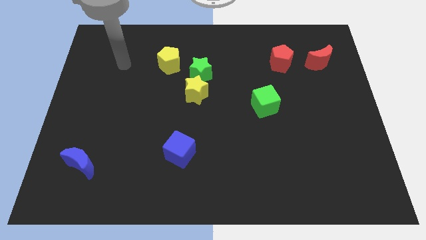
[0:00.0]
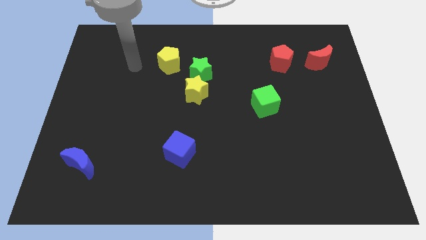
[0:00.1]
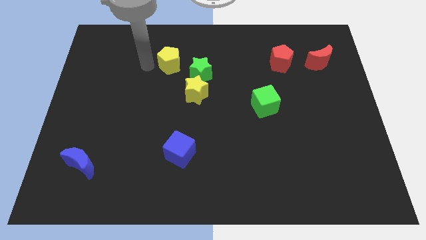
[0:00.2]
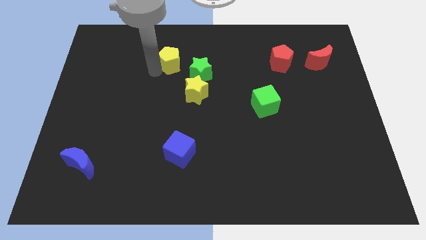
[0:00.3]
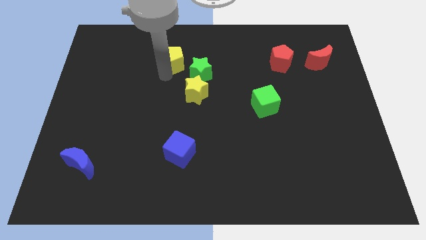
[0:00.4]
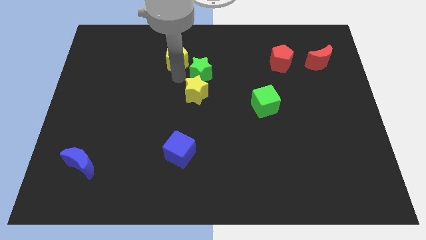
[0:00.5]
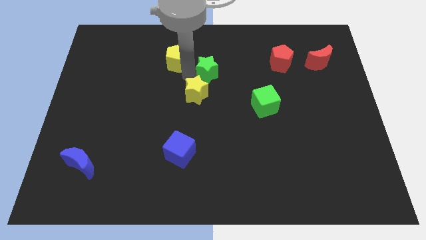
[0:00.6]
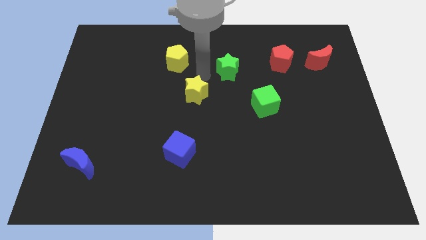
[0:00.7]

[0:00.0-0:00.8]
pull the yellow star apart from the green star

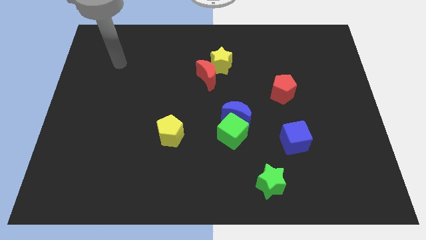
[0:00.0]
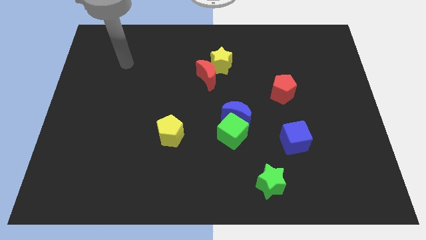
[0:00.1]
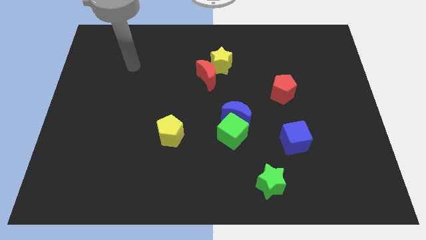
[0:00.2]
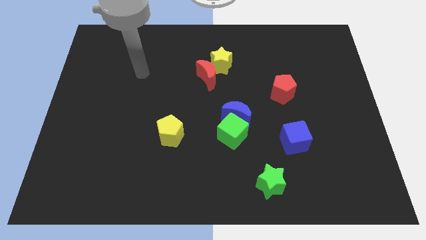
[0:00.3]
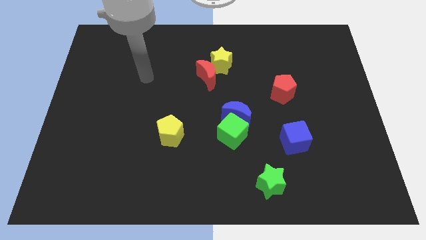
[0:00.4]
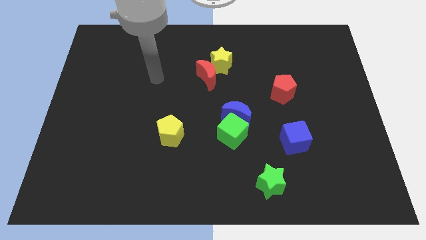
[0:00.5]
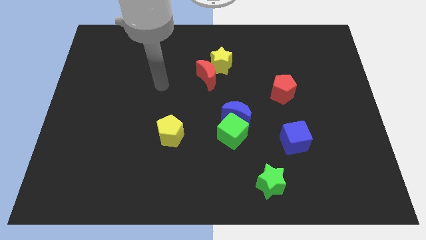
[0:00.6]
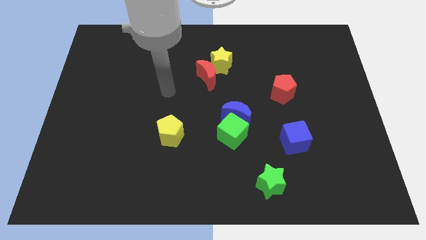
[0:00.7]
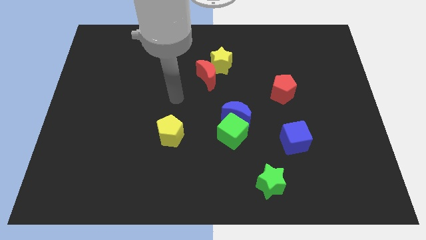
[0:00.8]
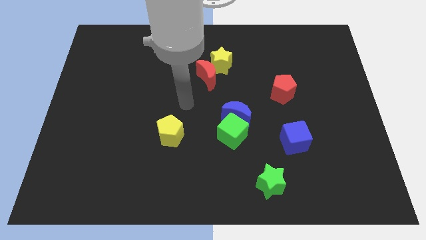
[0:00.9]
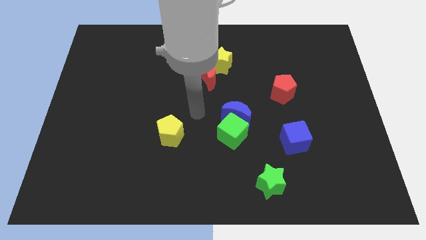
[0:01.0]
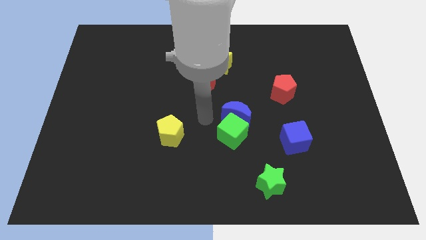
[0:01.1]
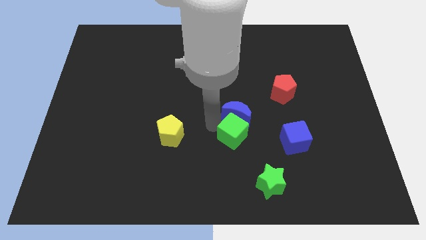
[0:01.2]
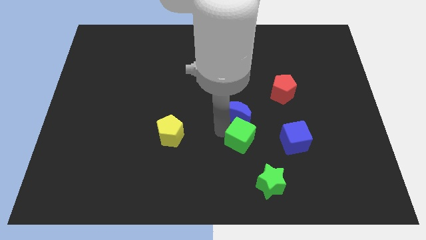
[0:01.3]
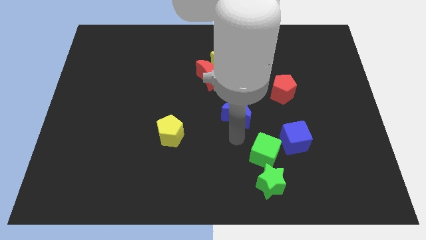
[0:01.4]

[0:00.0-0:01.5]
pull the blue moon apart from the green cube

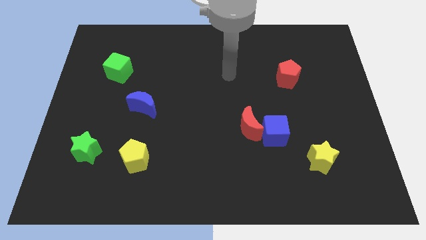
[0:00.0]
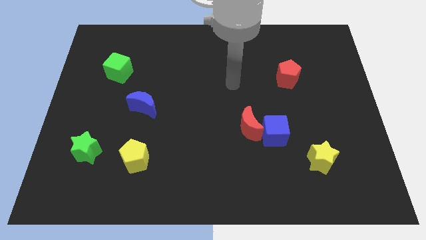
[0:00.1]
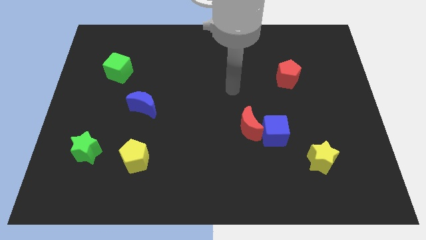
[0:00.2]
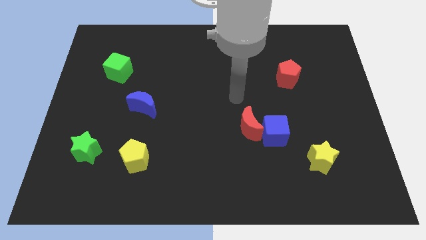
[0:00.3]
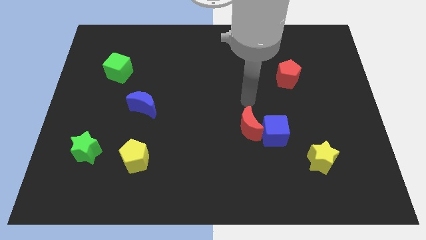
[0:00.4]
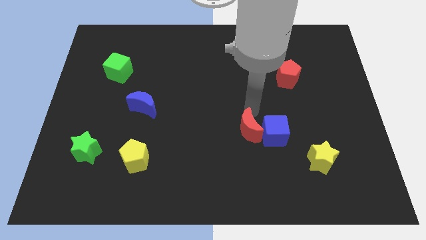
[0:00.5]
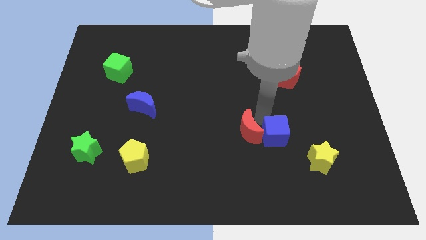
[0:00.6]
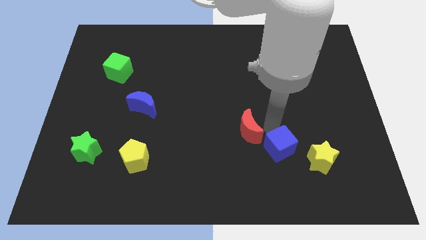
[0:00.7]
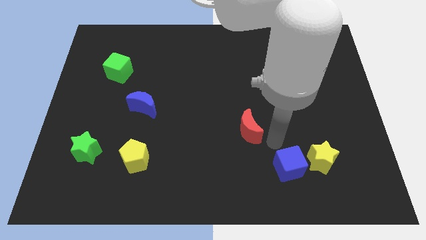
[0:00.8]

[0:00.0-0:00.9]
separate the red moon from the blue cube

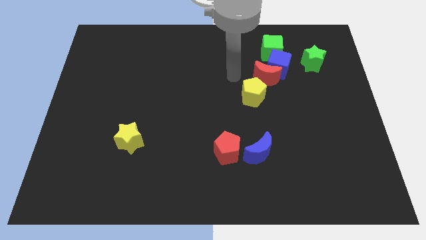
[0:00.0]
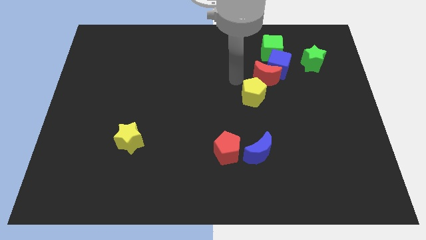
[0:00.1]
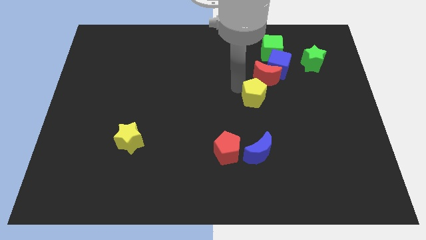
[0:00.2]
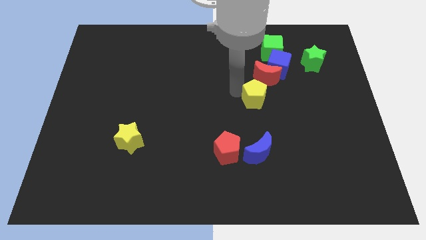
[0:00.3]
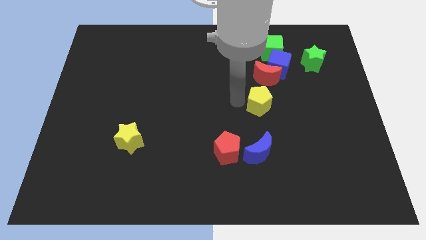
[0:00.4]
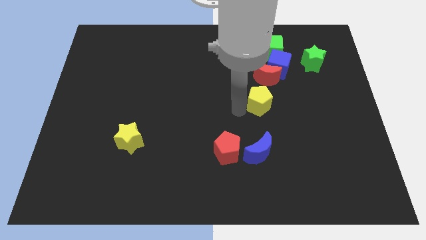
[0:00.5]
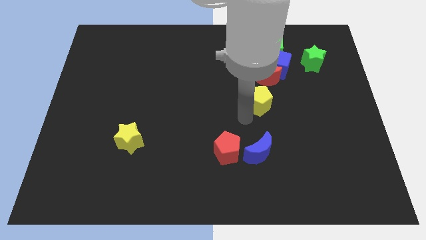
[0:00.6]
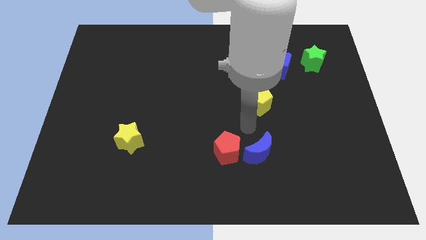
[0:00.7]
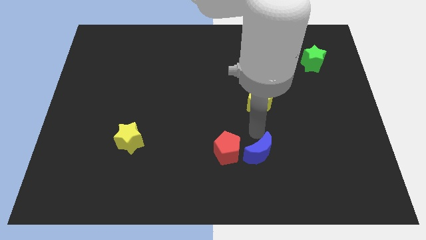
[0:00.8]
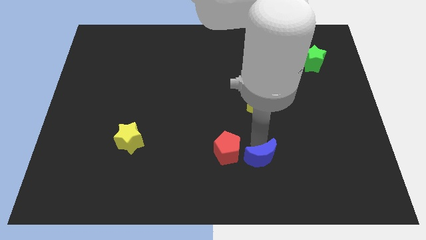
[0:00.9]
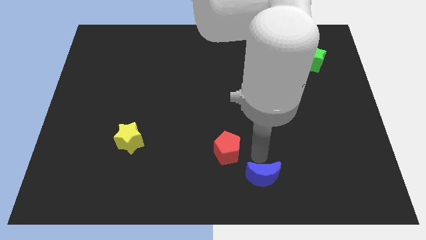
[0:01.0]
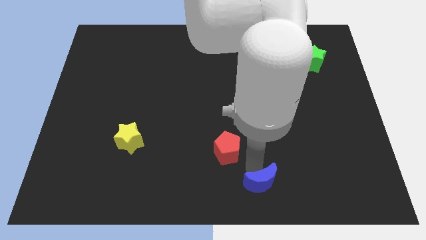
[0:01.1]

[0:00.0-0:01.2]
pull the red pentagon apart from the blue moon

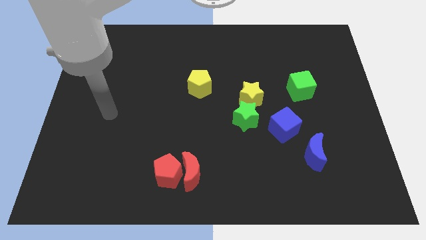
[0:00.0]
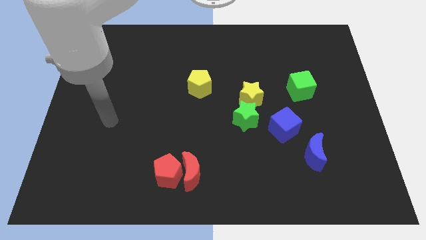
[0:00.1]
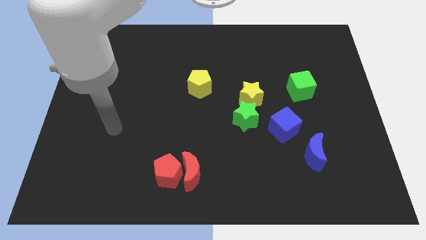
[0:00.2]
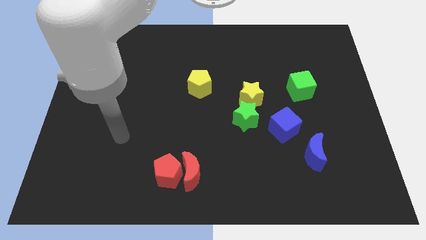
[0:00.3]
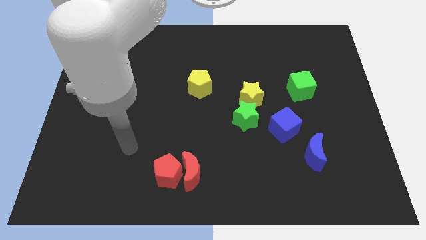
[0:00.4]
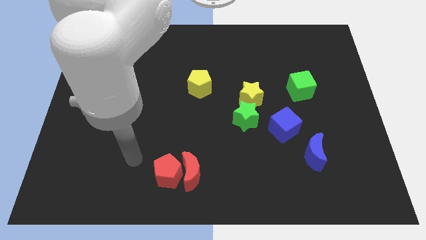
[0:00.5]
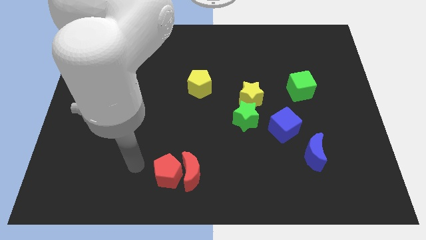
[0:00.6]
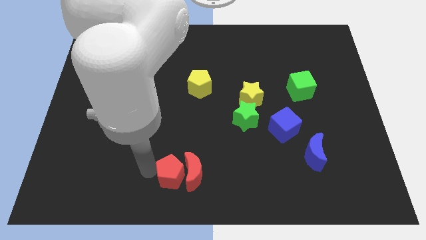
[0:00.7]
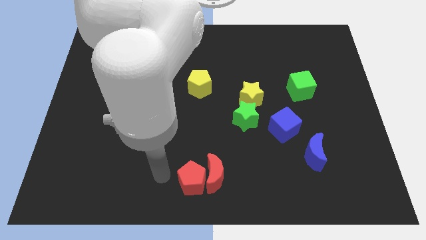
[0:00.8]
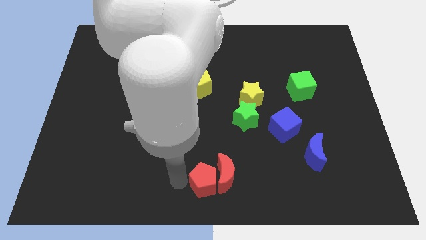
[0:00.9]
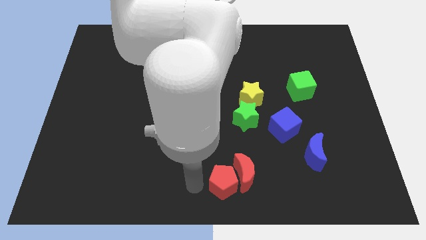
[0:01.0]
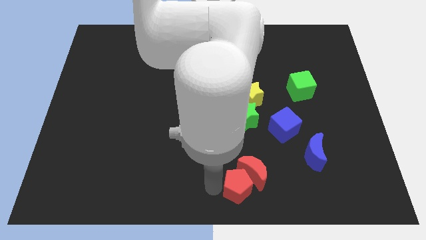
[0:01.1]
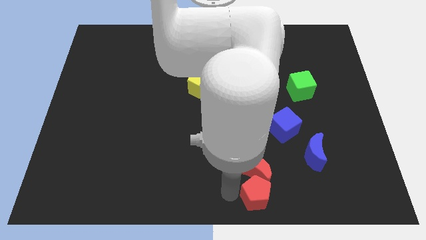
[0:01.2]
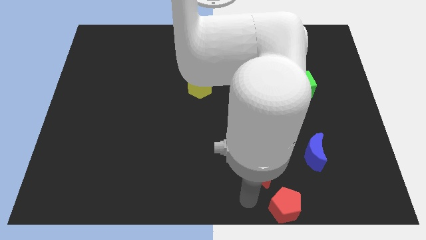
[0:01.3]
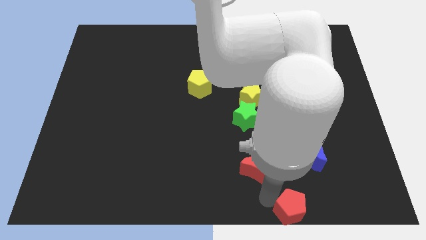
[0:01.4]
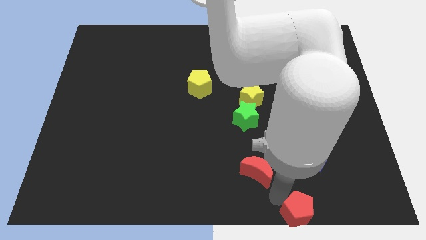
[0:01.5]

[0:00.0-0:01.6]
move the red moon away from the red pentagon

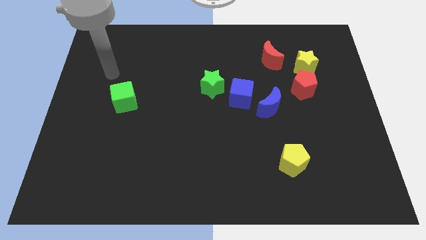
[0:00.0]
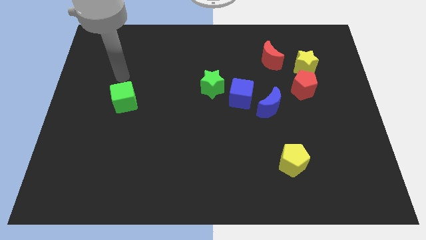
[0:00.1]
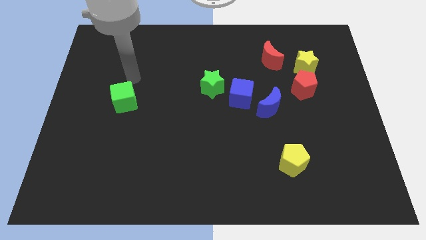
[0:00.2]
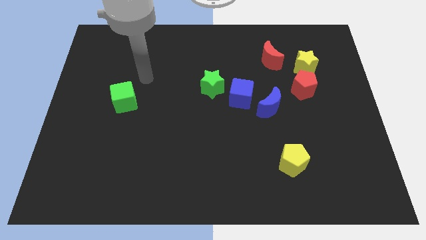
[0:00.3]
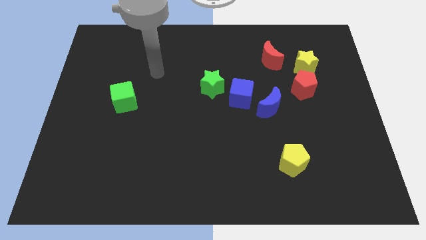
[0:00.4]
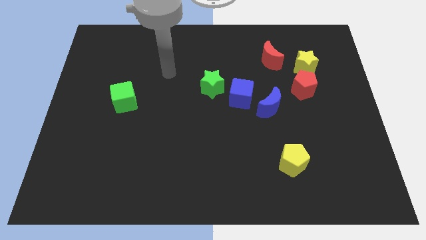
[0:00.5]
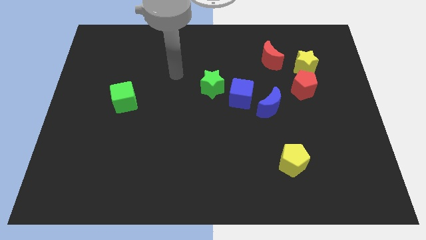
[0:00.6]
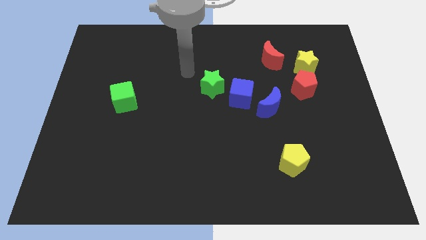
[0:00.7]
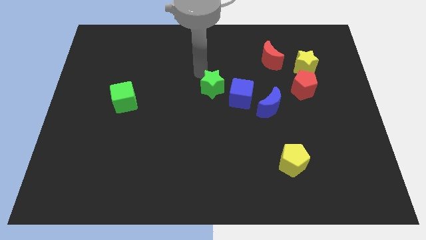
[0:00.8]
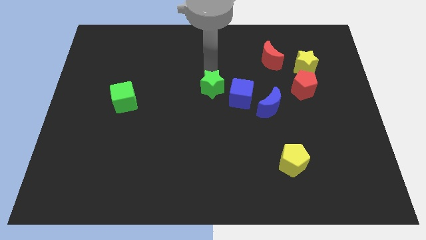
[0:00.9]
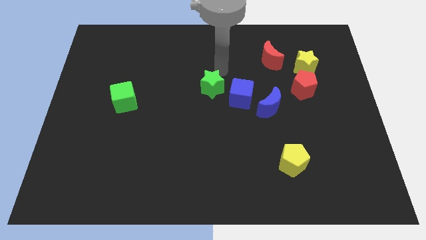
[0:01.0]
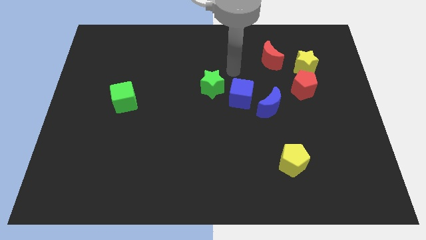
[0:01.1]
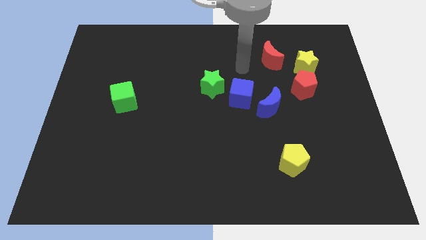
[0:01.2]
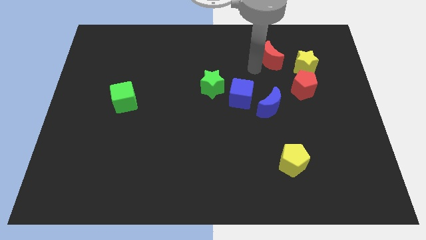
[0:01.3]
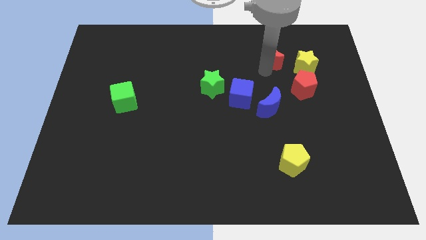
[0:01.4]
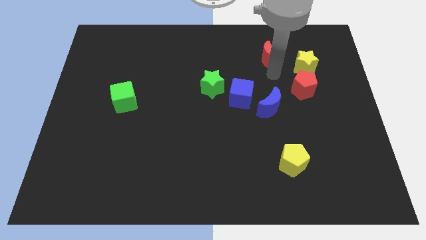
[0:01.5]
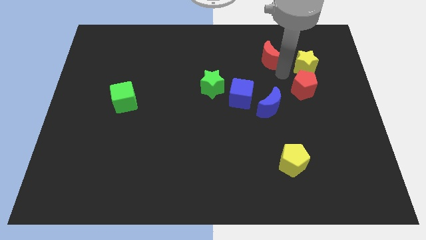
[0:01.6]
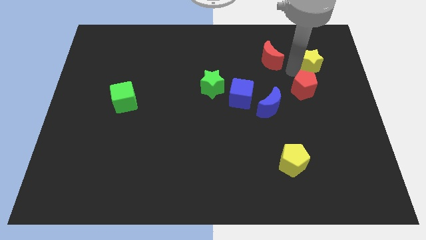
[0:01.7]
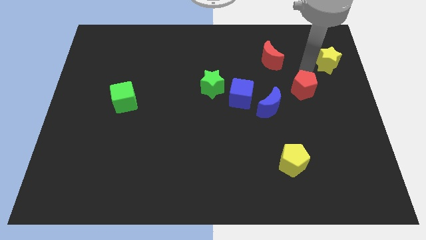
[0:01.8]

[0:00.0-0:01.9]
separate the red pentagon from the yellow star

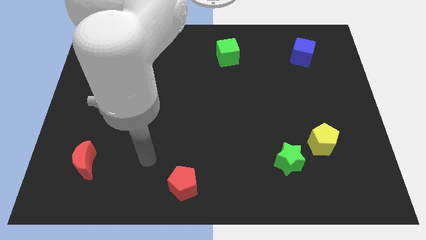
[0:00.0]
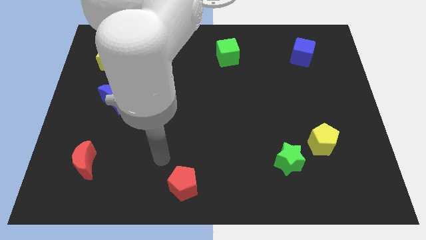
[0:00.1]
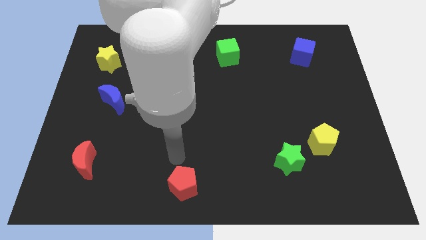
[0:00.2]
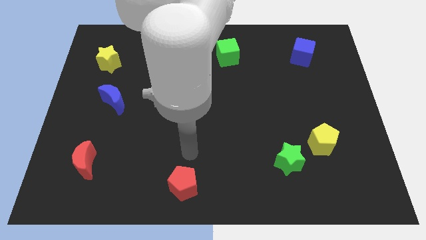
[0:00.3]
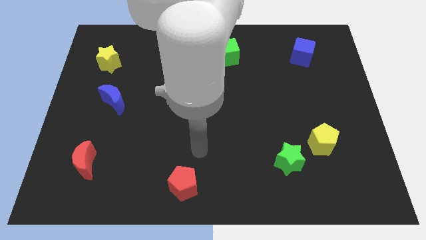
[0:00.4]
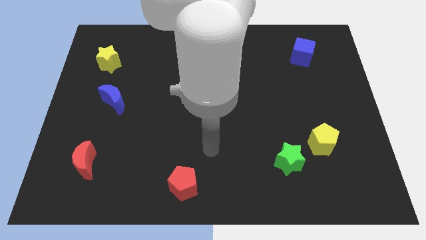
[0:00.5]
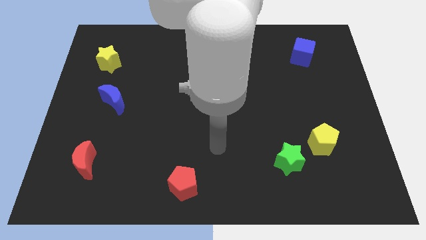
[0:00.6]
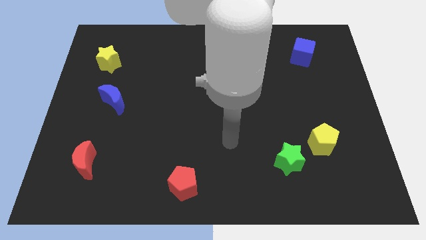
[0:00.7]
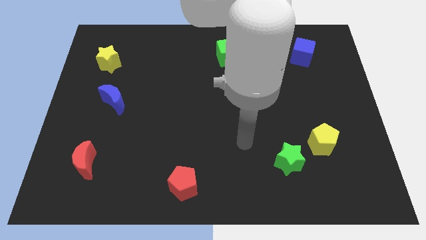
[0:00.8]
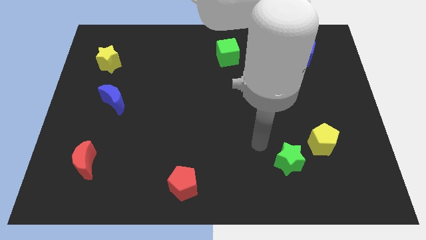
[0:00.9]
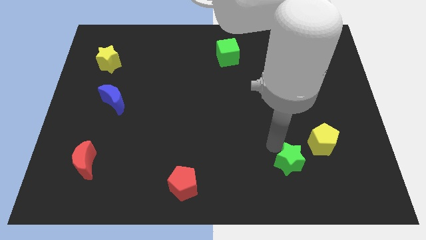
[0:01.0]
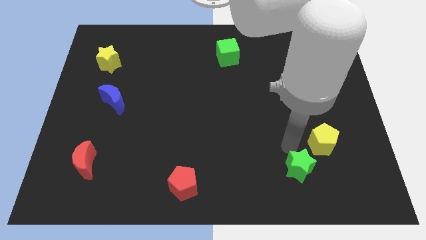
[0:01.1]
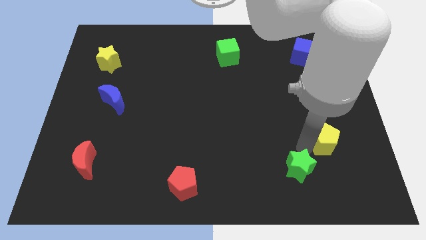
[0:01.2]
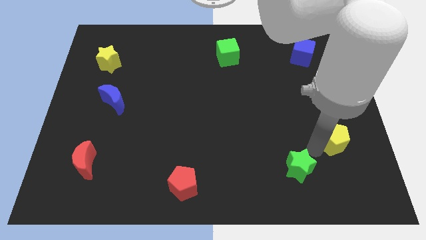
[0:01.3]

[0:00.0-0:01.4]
pull the green star apart from the yellow pentagon
